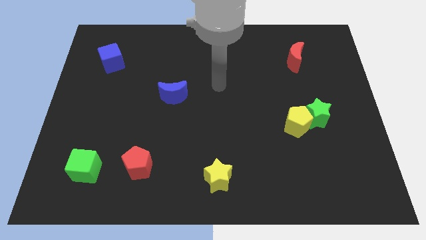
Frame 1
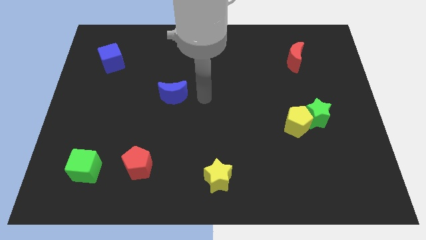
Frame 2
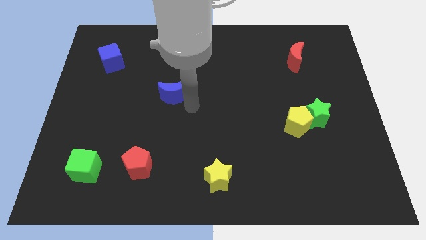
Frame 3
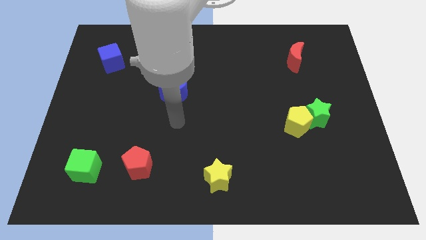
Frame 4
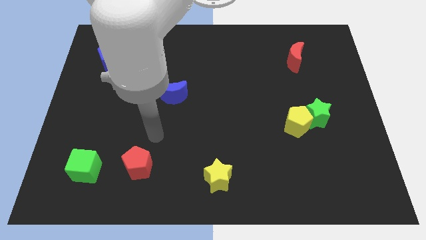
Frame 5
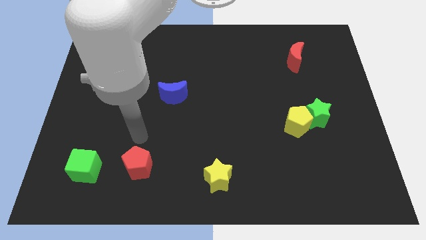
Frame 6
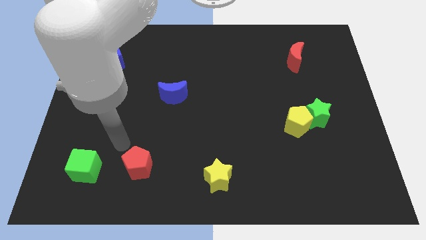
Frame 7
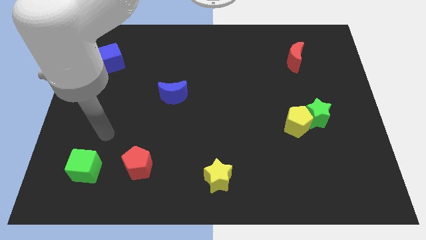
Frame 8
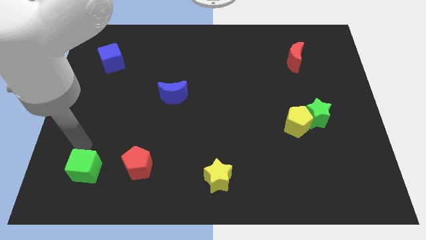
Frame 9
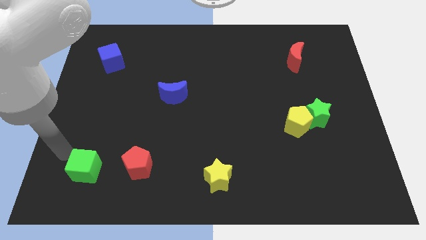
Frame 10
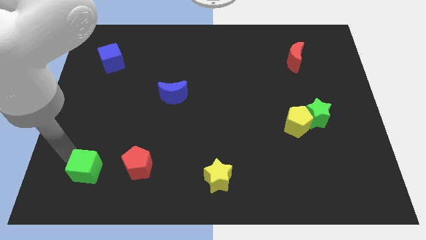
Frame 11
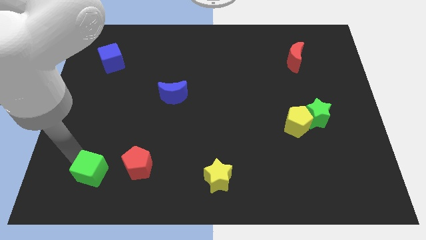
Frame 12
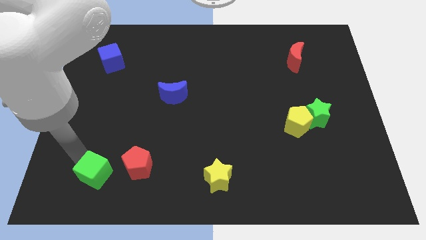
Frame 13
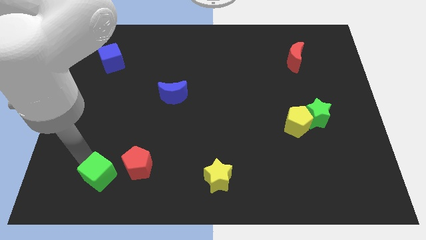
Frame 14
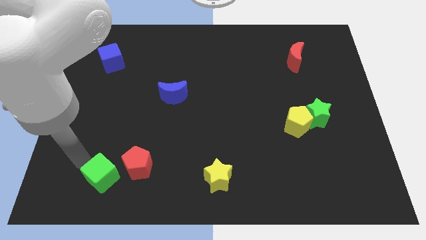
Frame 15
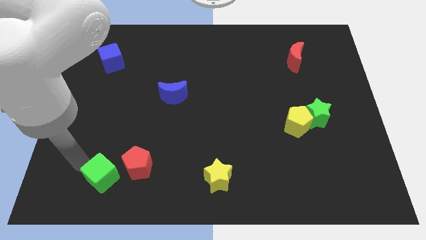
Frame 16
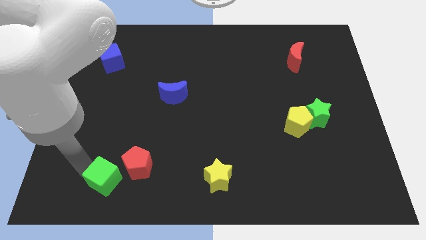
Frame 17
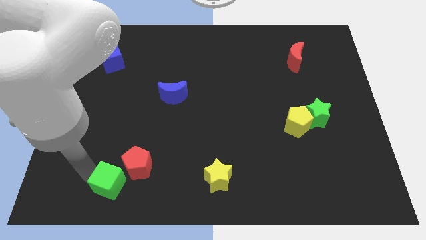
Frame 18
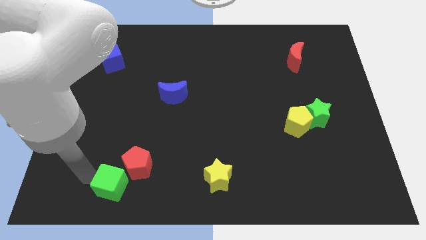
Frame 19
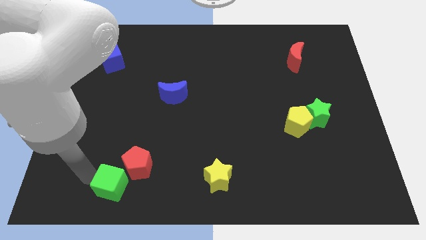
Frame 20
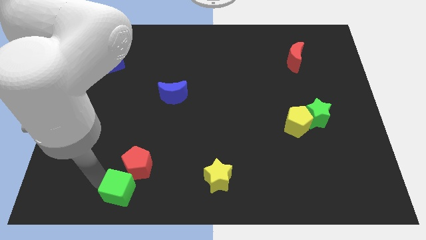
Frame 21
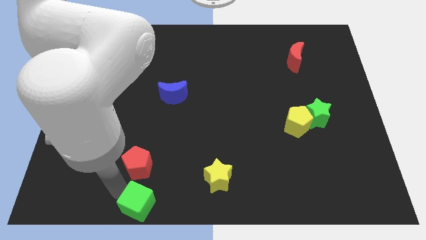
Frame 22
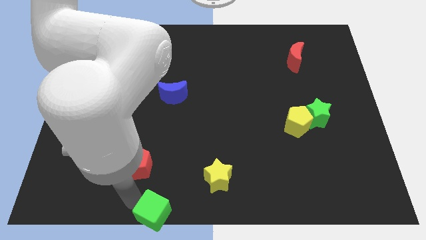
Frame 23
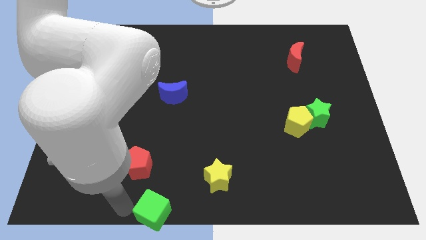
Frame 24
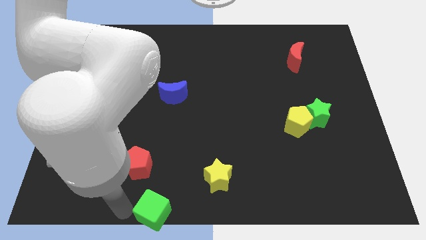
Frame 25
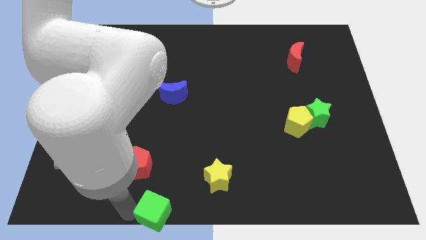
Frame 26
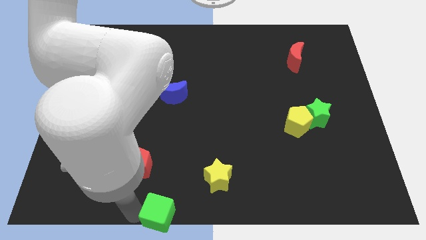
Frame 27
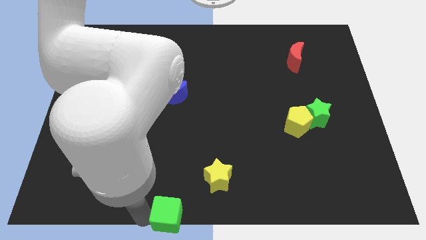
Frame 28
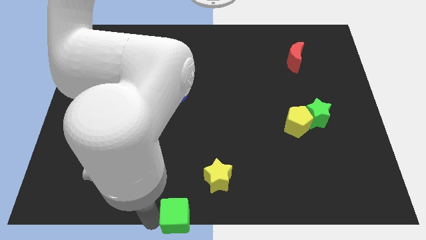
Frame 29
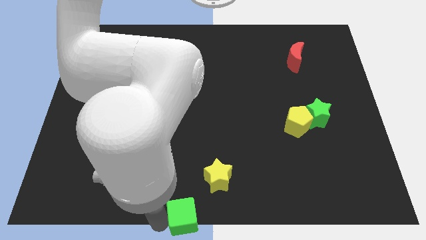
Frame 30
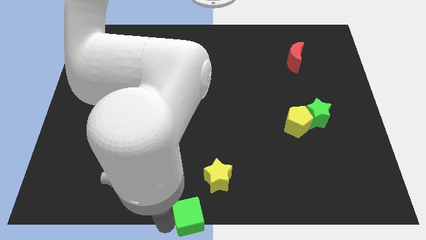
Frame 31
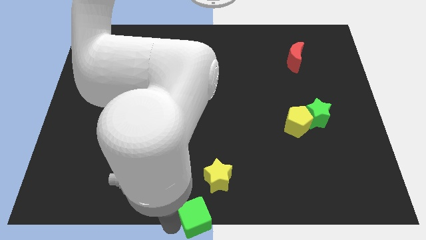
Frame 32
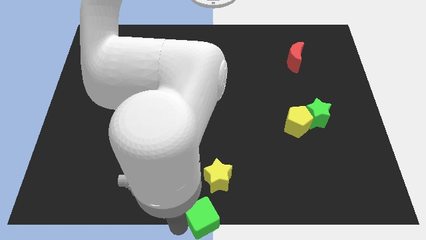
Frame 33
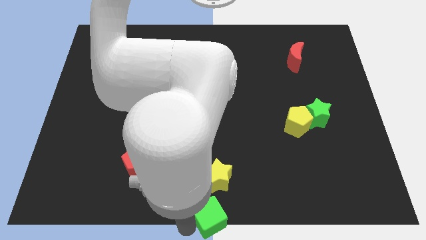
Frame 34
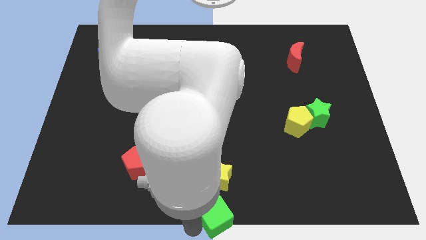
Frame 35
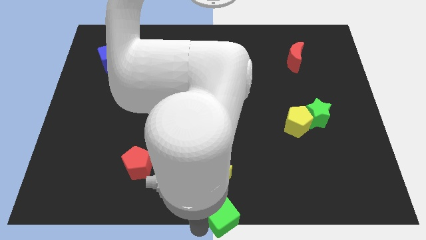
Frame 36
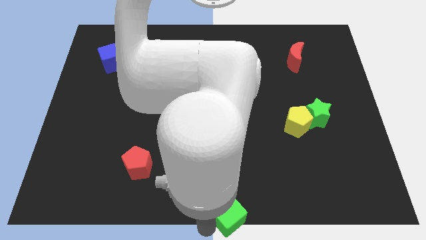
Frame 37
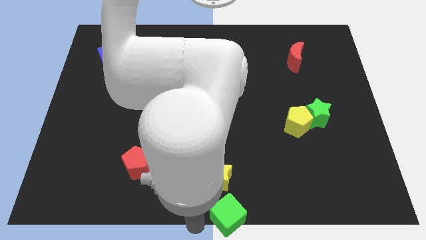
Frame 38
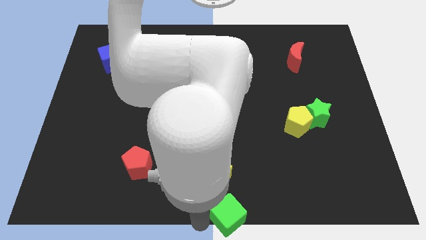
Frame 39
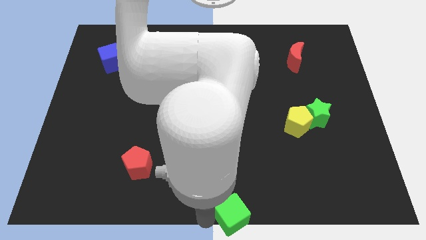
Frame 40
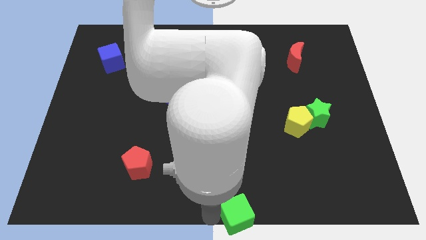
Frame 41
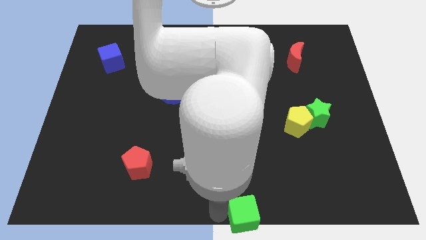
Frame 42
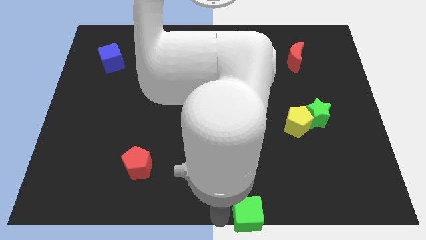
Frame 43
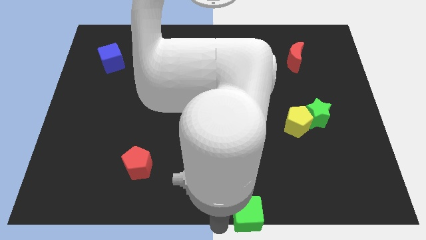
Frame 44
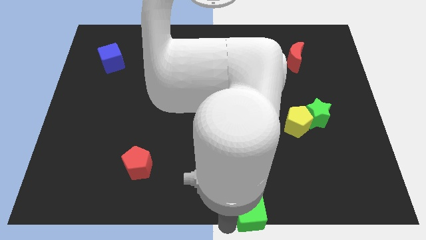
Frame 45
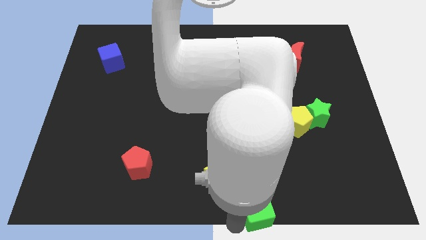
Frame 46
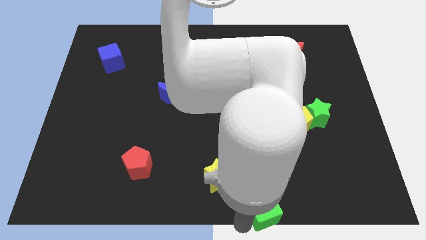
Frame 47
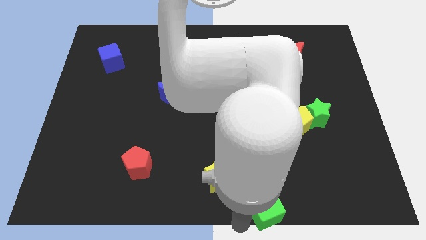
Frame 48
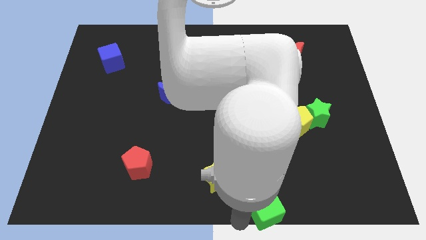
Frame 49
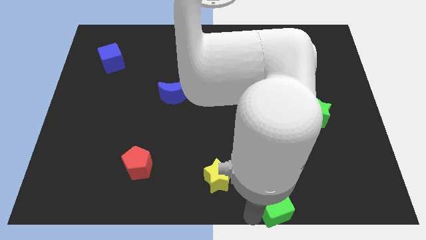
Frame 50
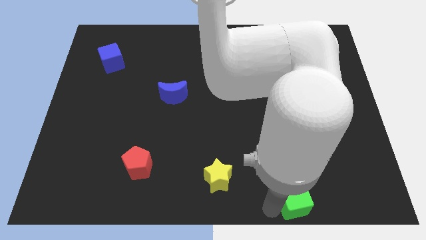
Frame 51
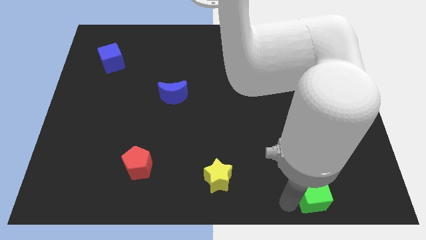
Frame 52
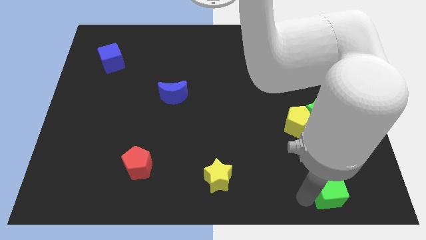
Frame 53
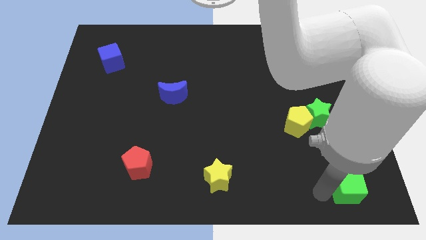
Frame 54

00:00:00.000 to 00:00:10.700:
put the green cube to the bottom right
